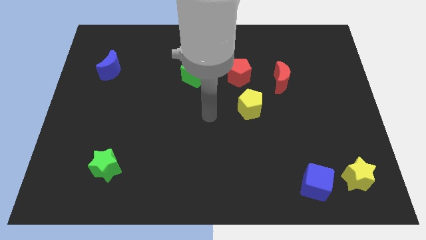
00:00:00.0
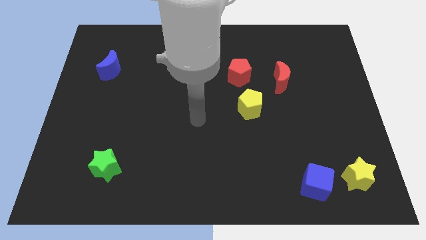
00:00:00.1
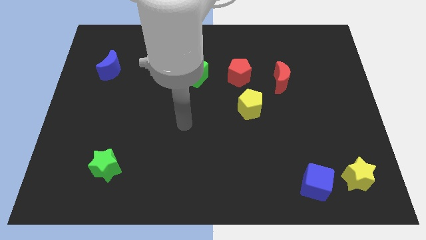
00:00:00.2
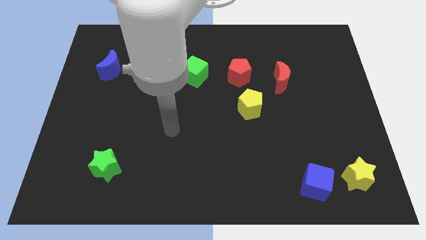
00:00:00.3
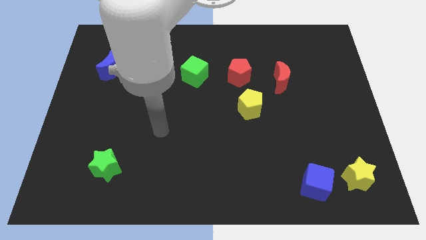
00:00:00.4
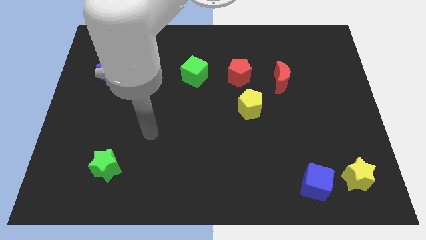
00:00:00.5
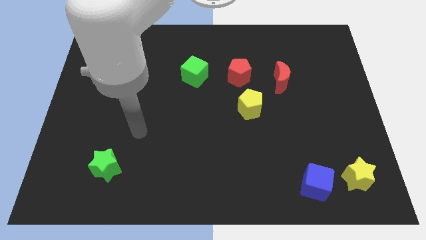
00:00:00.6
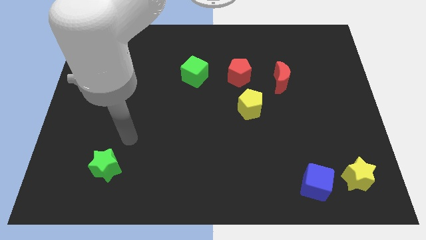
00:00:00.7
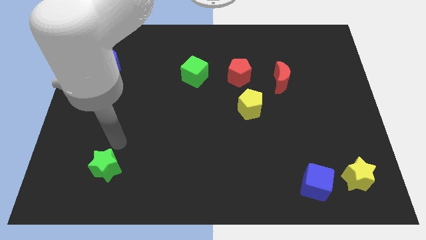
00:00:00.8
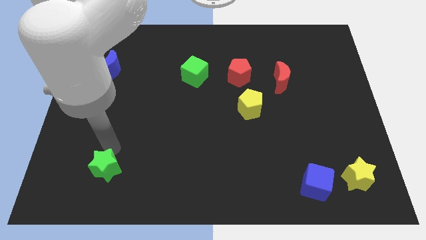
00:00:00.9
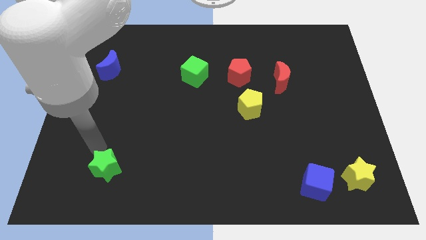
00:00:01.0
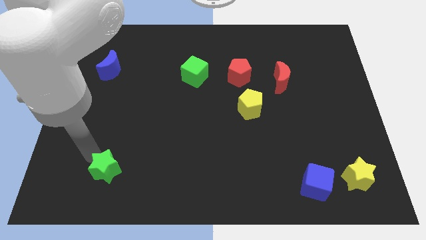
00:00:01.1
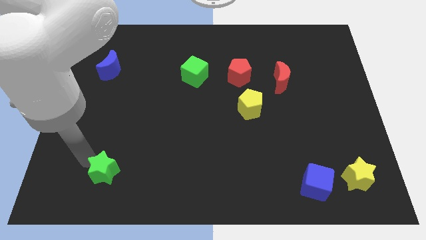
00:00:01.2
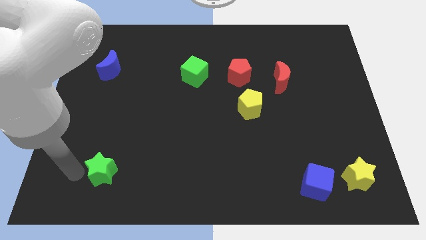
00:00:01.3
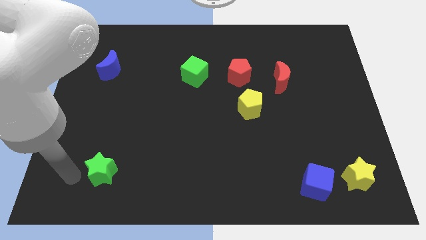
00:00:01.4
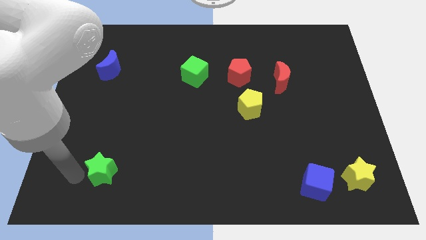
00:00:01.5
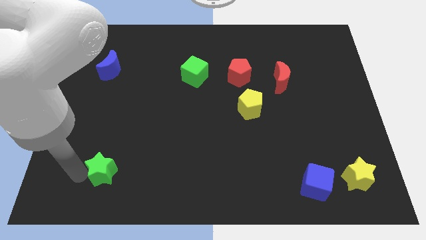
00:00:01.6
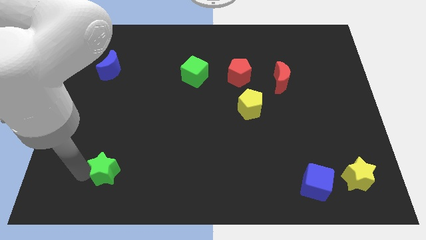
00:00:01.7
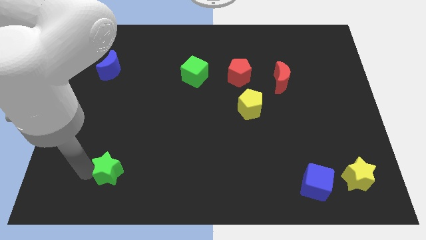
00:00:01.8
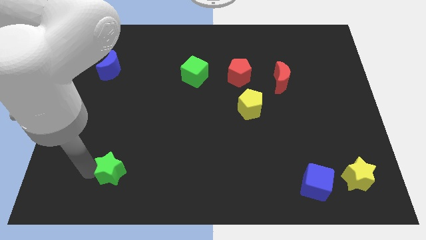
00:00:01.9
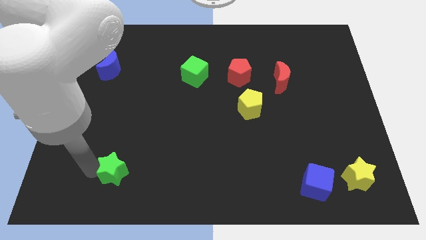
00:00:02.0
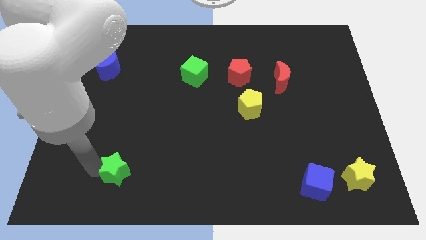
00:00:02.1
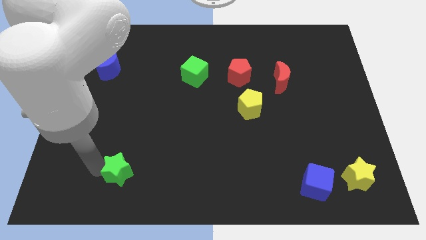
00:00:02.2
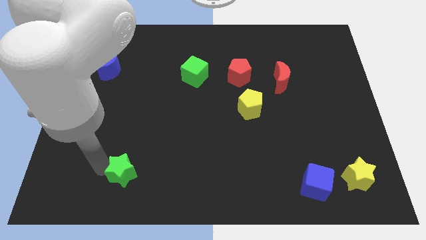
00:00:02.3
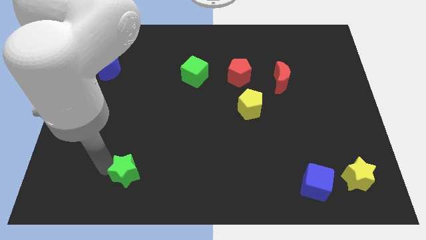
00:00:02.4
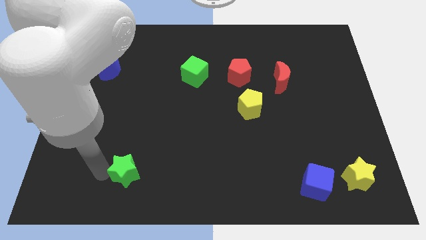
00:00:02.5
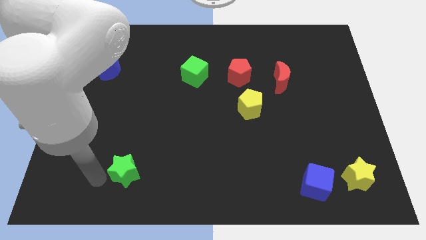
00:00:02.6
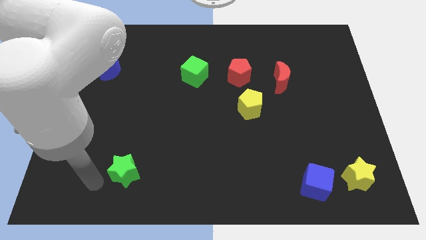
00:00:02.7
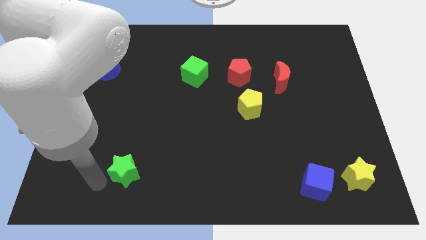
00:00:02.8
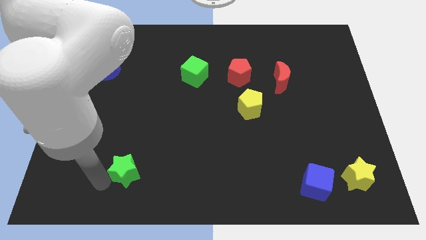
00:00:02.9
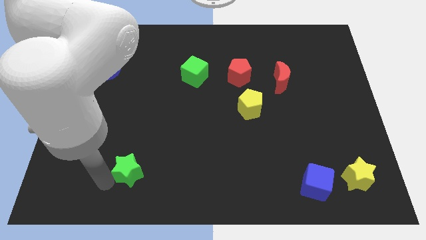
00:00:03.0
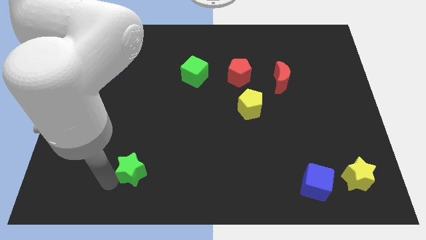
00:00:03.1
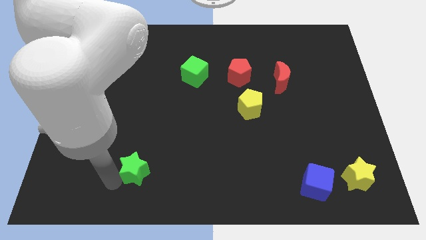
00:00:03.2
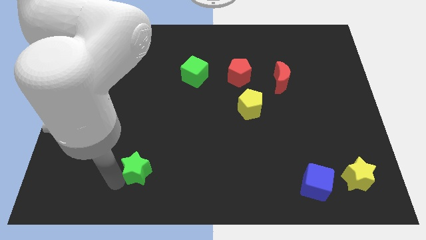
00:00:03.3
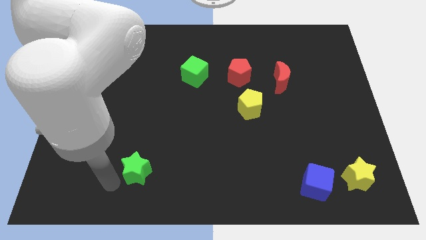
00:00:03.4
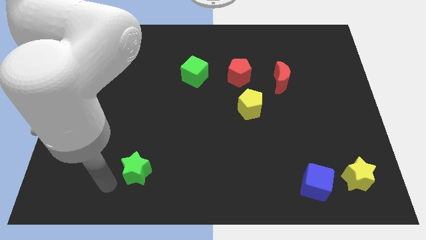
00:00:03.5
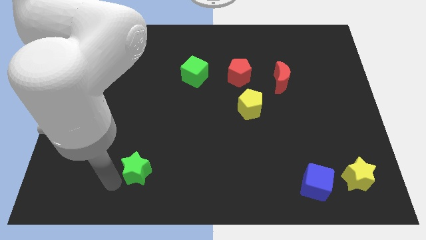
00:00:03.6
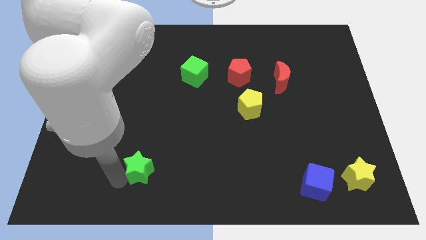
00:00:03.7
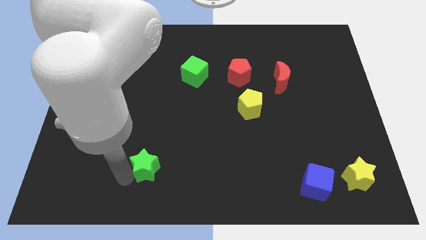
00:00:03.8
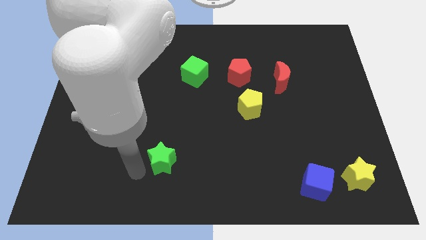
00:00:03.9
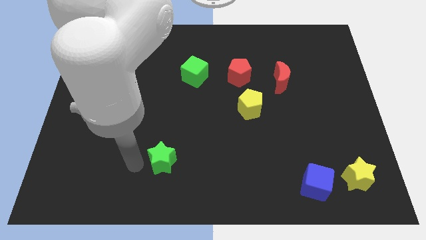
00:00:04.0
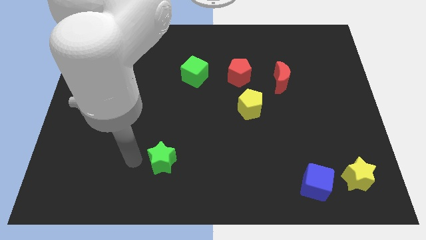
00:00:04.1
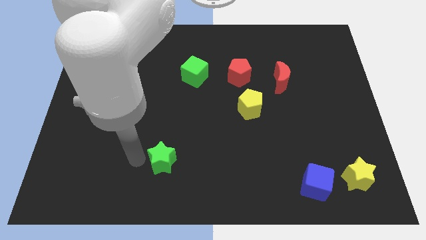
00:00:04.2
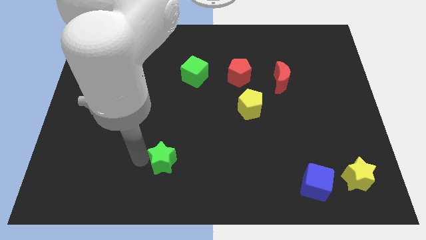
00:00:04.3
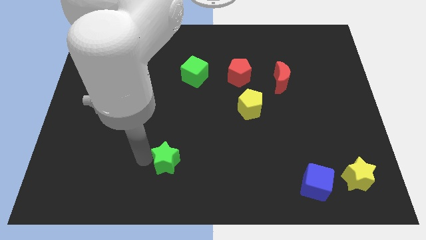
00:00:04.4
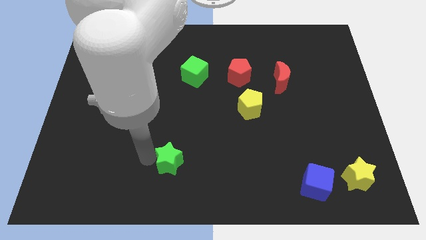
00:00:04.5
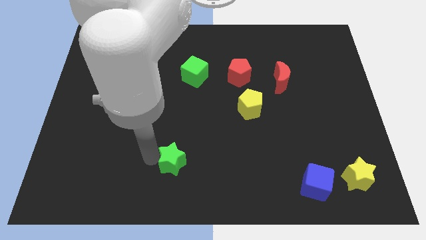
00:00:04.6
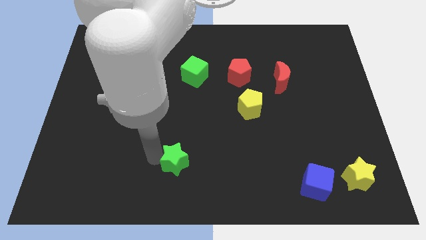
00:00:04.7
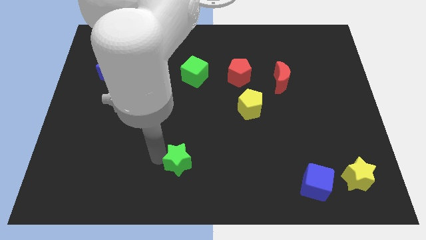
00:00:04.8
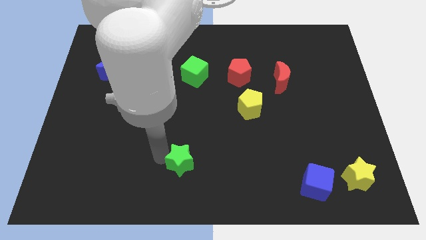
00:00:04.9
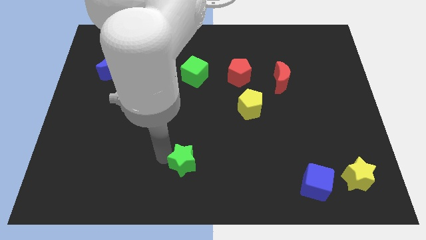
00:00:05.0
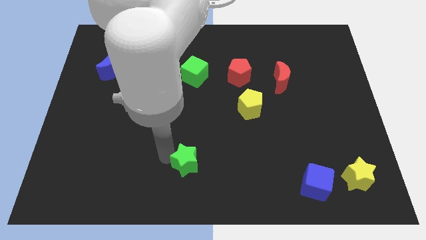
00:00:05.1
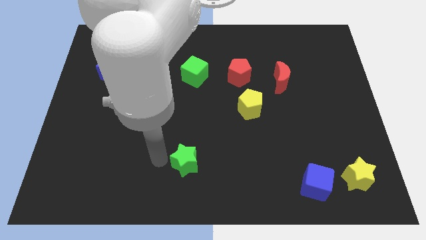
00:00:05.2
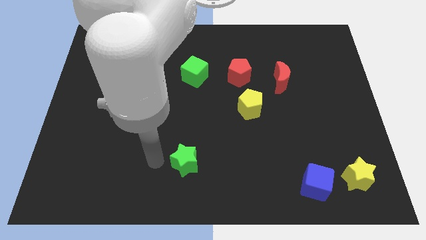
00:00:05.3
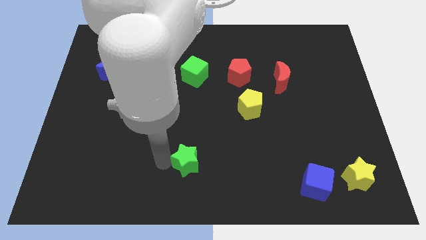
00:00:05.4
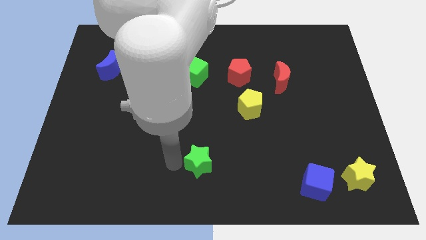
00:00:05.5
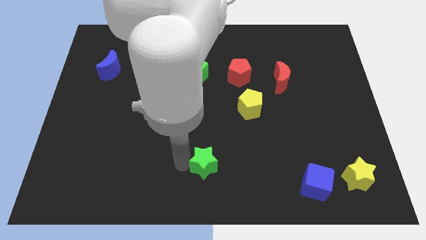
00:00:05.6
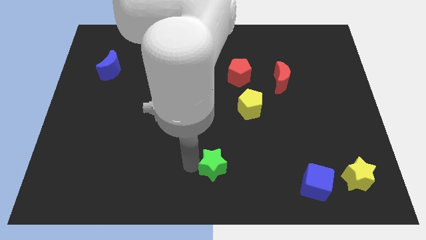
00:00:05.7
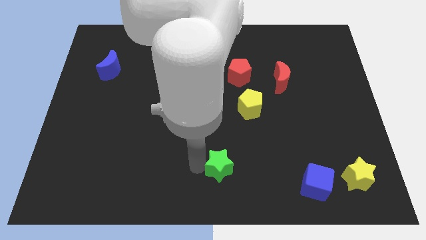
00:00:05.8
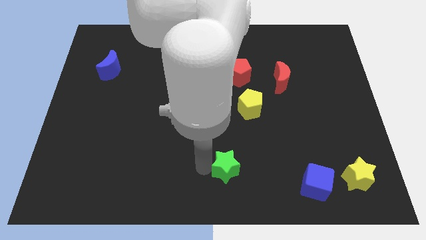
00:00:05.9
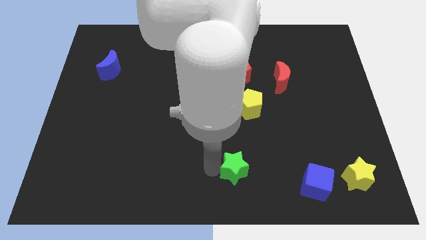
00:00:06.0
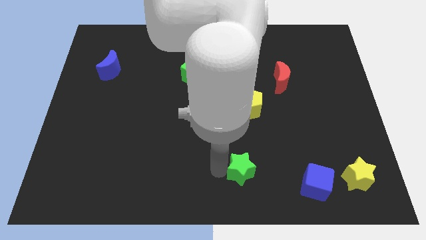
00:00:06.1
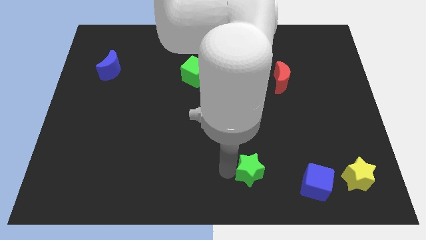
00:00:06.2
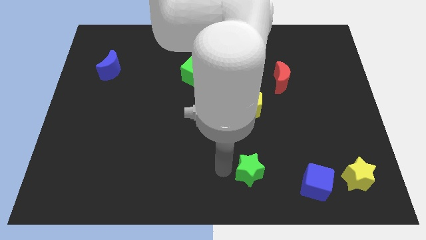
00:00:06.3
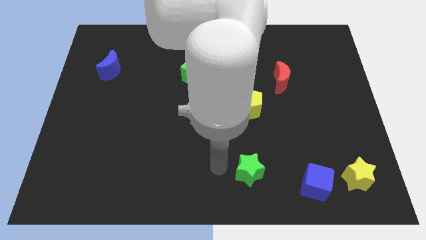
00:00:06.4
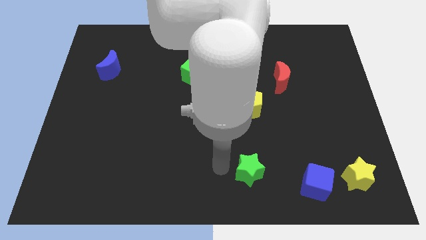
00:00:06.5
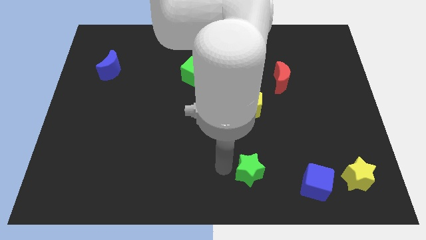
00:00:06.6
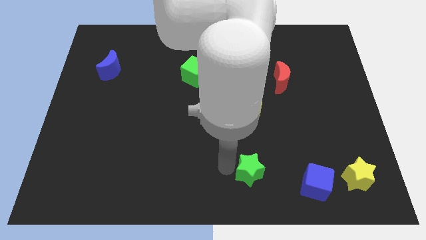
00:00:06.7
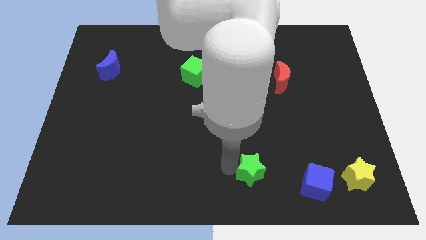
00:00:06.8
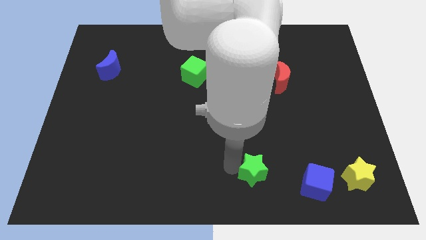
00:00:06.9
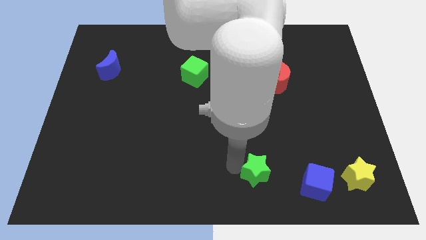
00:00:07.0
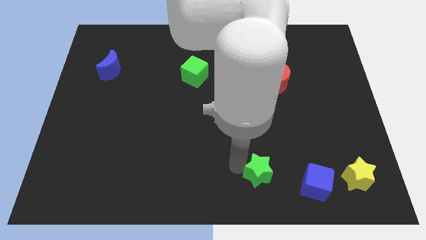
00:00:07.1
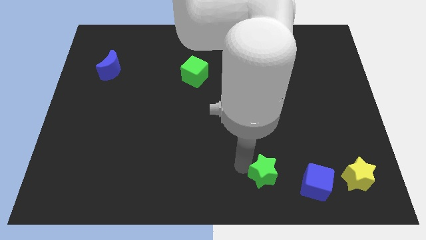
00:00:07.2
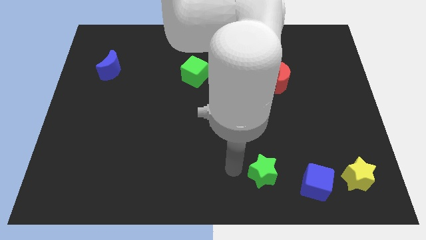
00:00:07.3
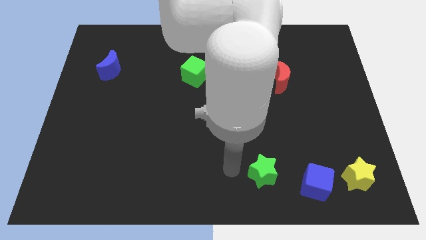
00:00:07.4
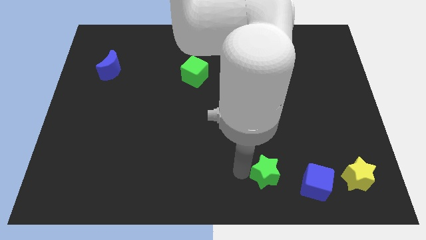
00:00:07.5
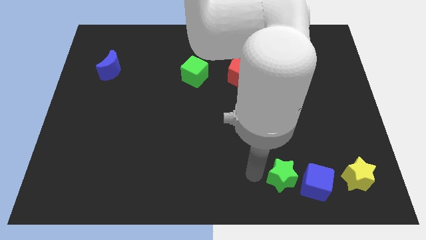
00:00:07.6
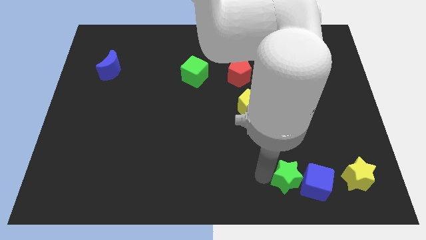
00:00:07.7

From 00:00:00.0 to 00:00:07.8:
slide the green star towards the blue cube

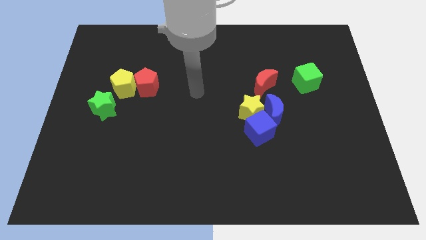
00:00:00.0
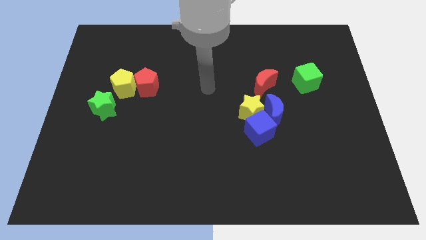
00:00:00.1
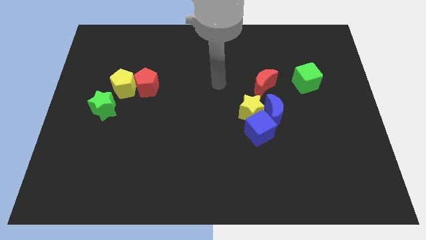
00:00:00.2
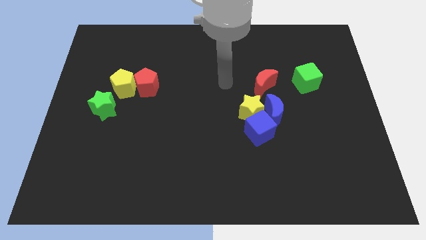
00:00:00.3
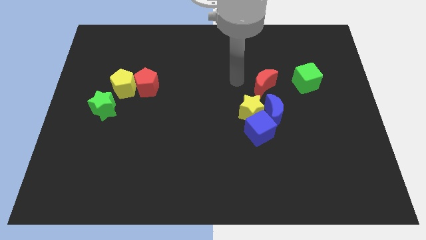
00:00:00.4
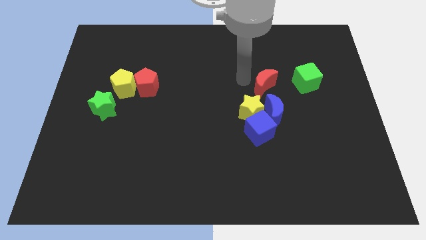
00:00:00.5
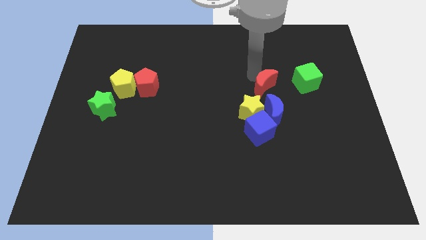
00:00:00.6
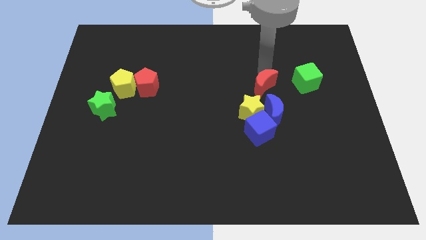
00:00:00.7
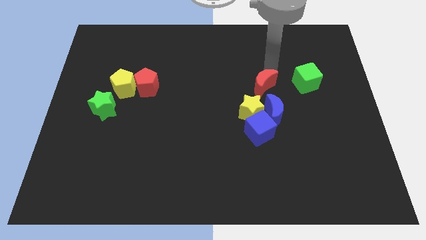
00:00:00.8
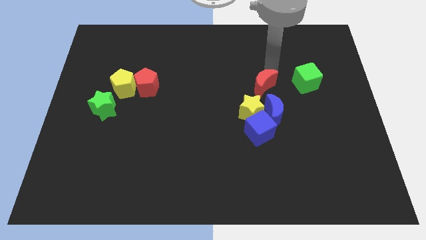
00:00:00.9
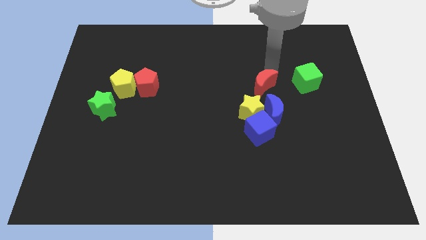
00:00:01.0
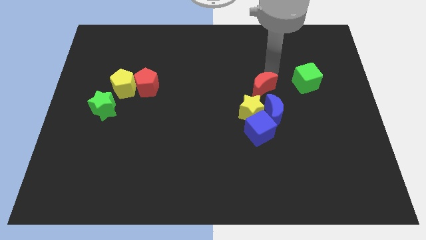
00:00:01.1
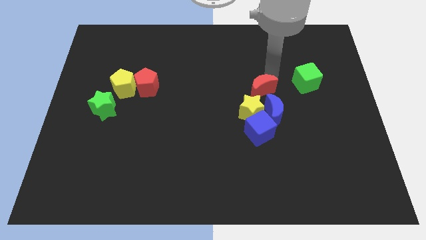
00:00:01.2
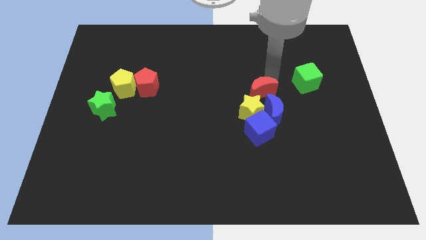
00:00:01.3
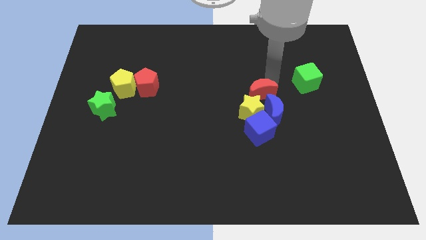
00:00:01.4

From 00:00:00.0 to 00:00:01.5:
put the red moon towards the yellow star
